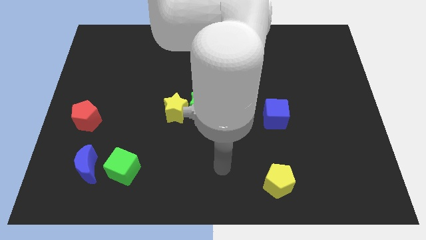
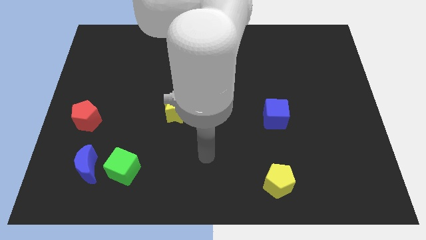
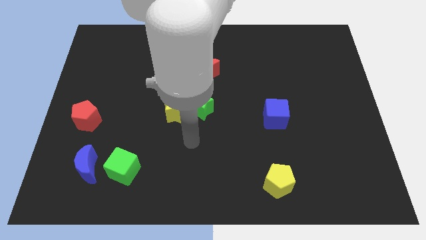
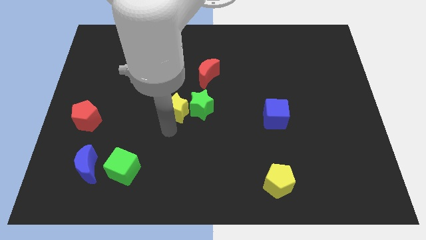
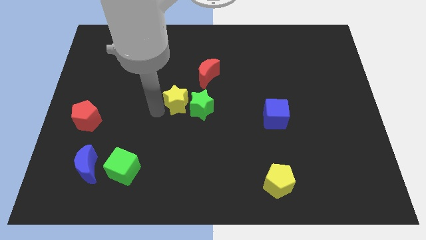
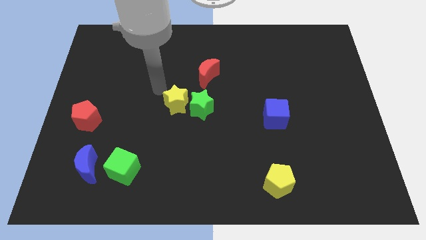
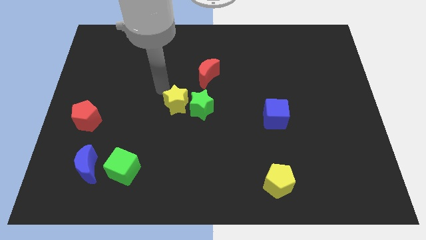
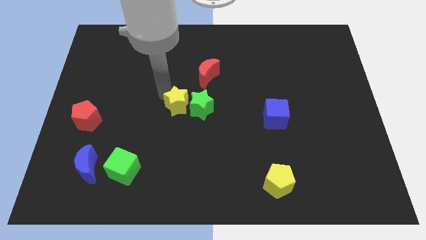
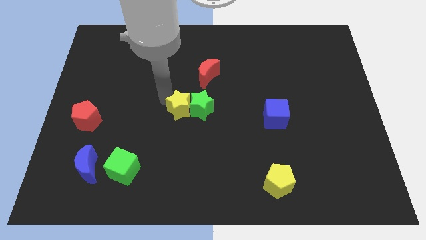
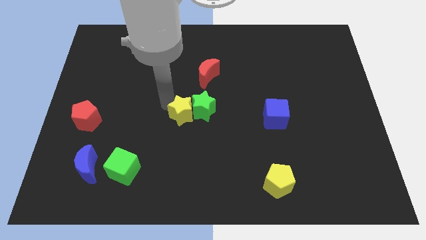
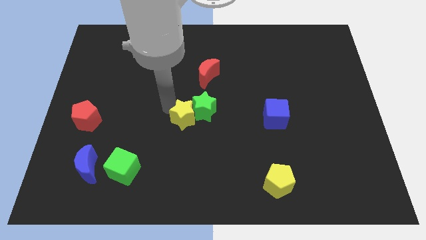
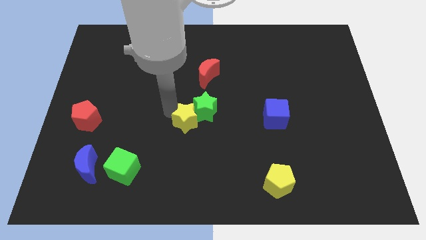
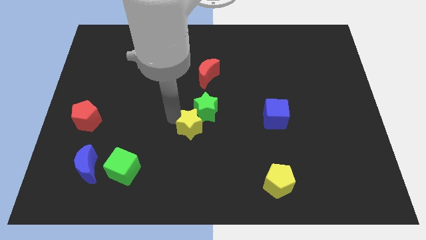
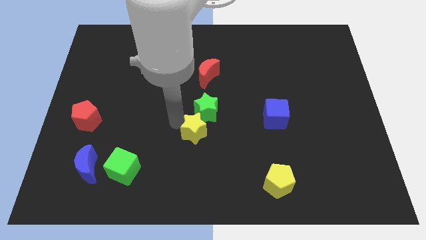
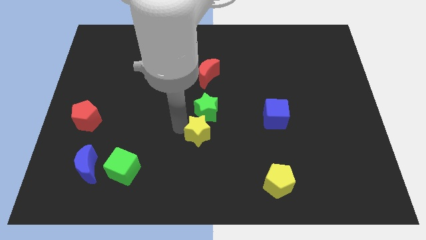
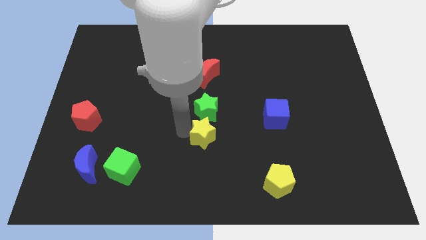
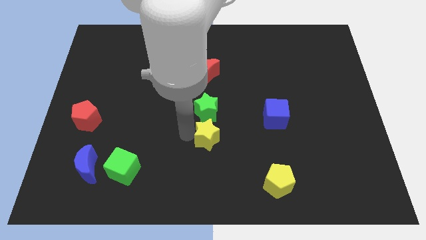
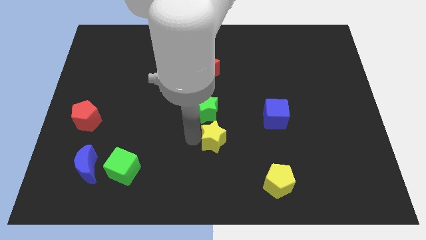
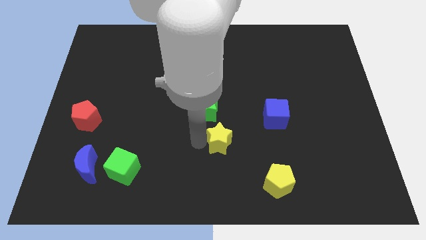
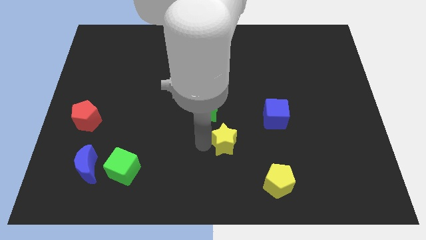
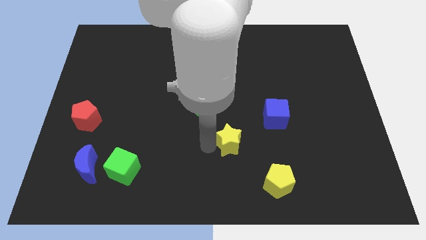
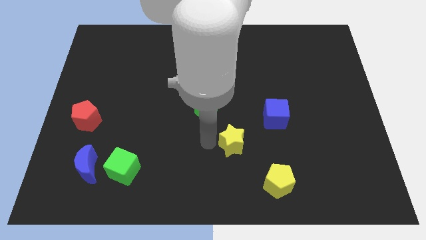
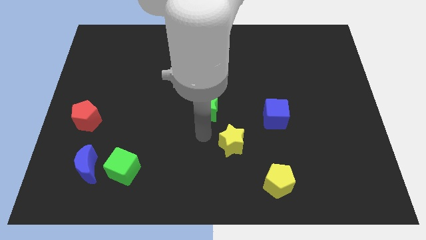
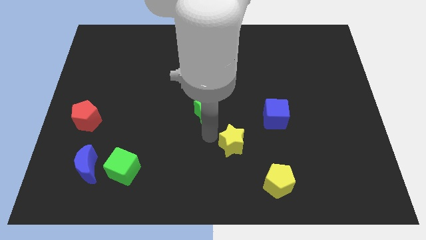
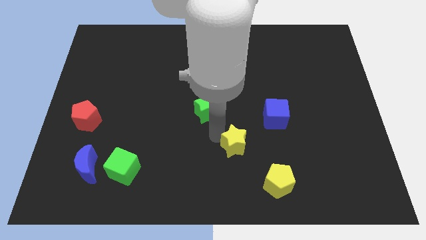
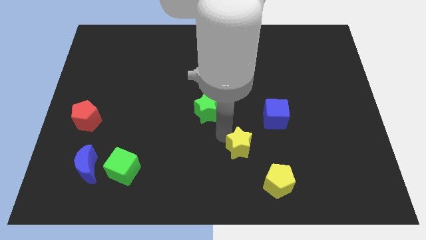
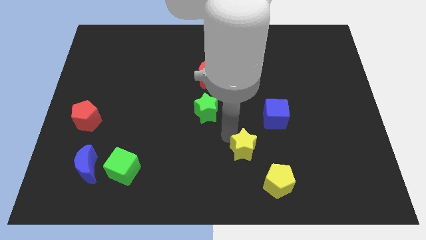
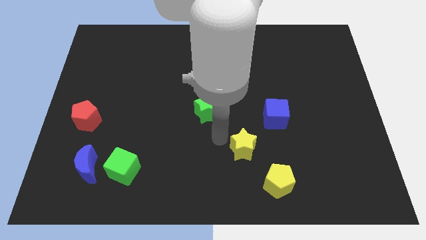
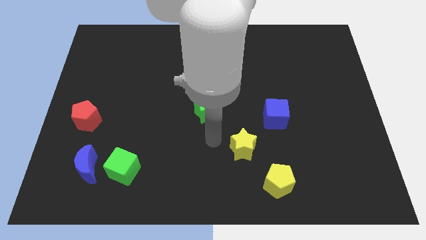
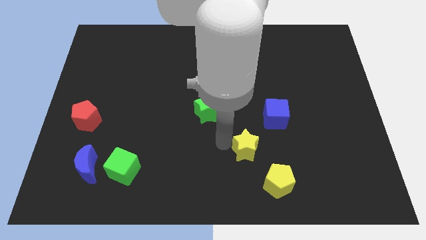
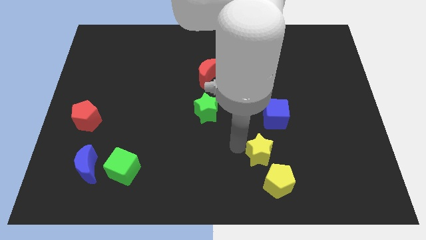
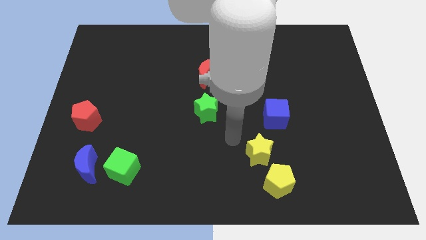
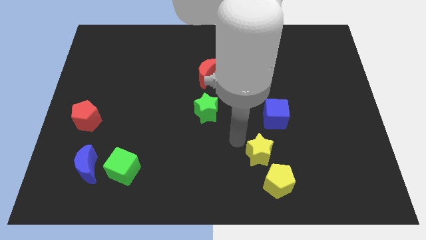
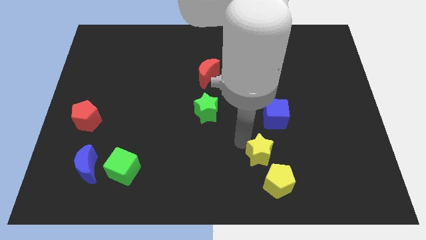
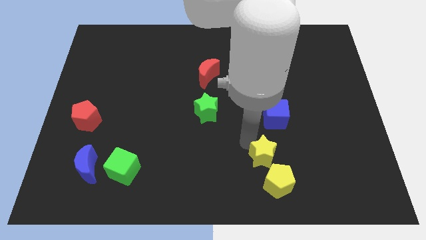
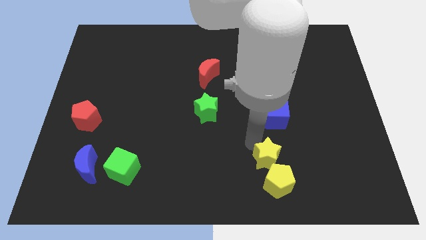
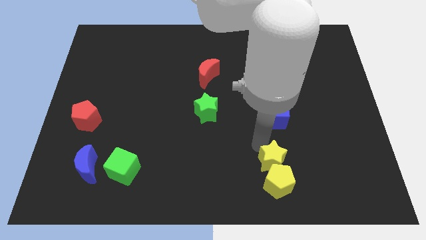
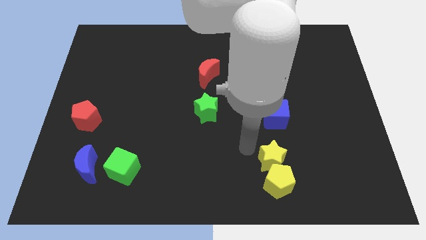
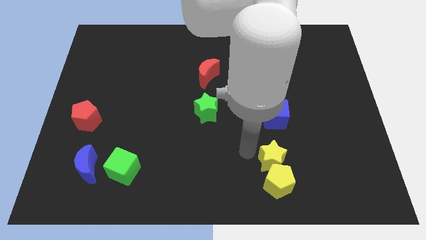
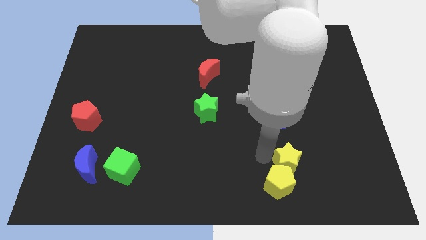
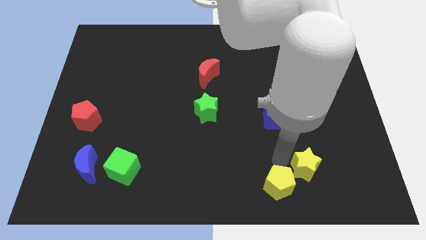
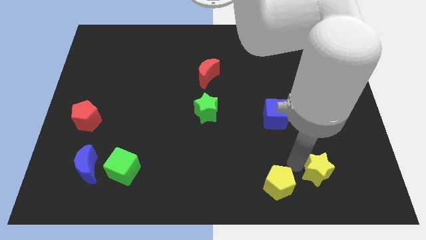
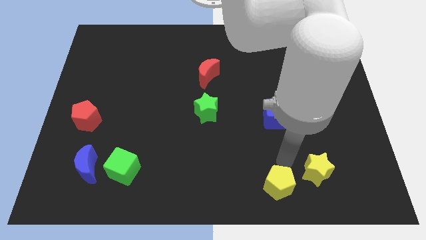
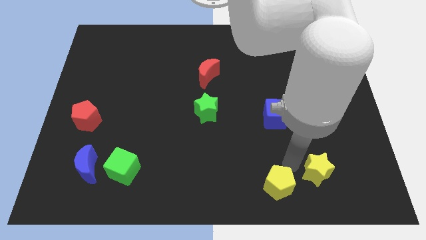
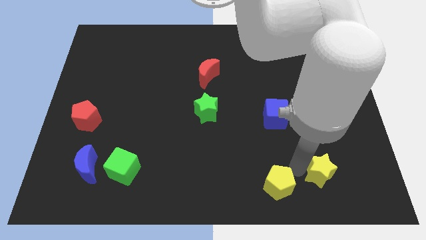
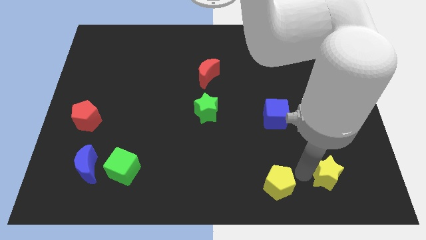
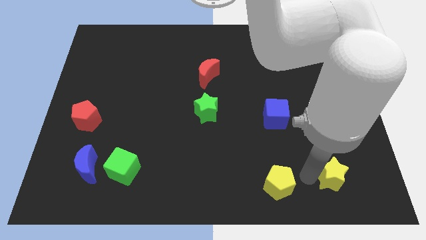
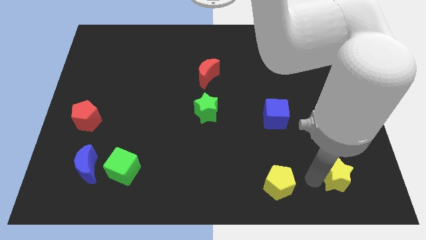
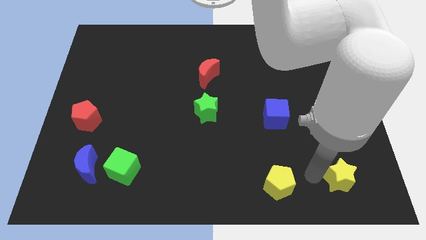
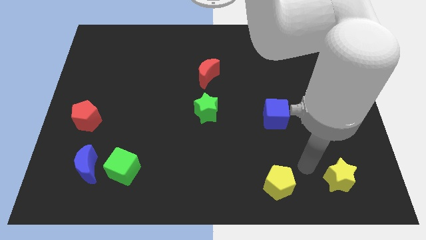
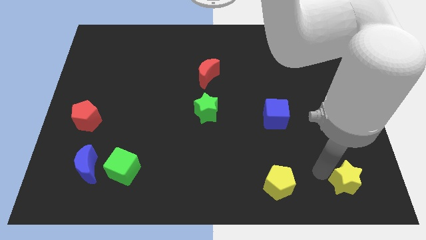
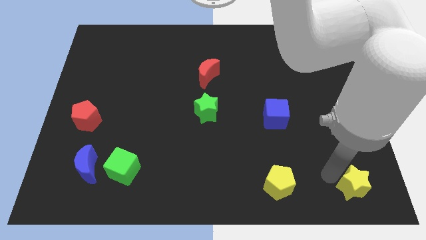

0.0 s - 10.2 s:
push the yellow star to the bottom right

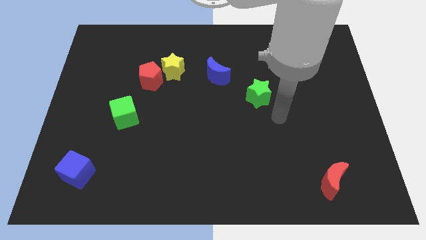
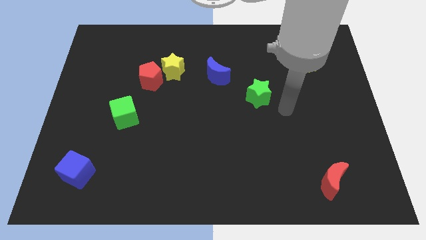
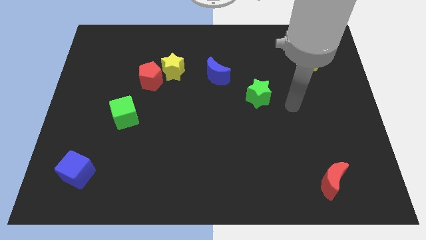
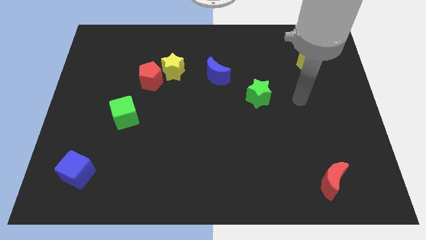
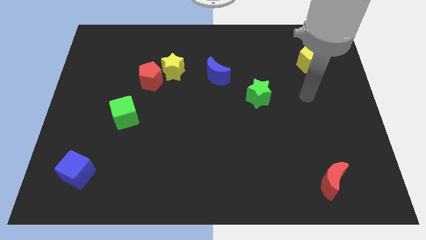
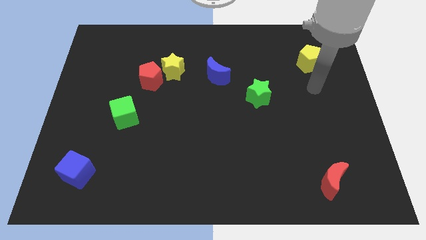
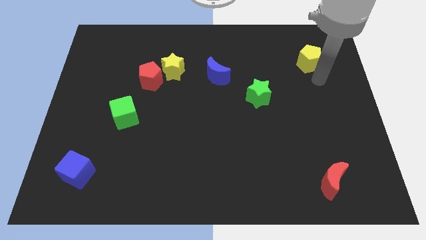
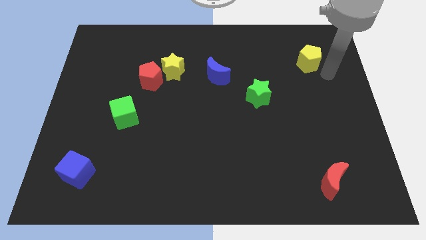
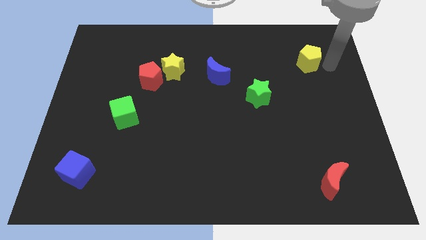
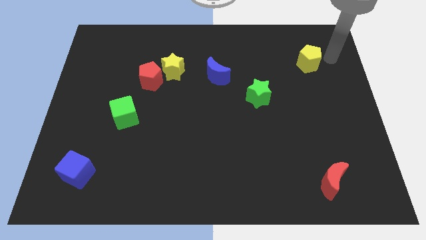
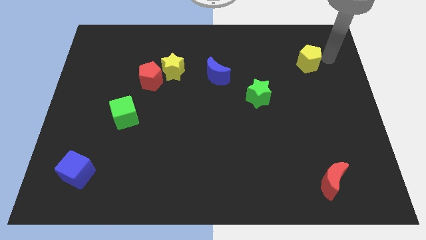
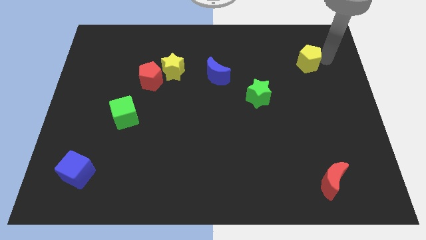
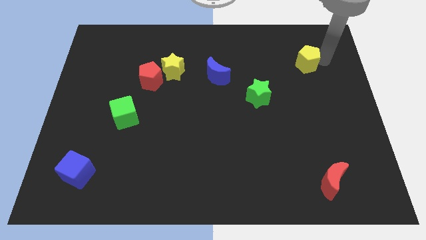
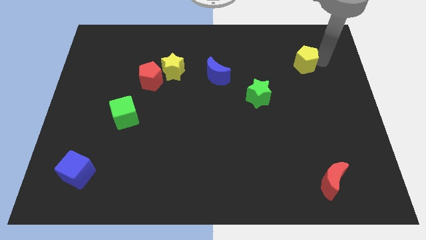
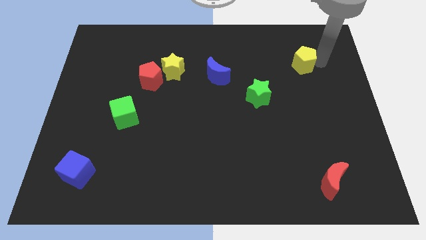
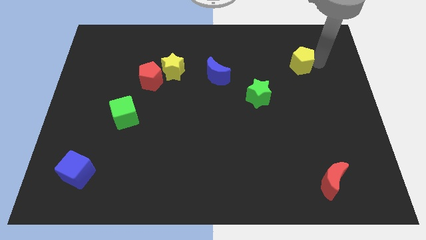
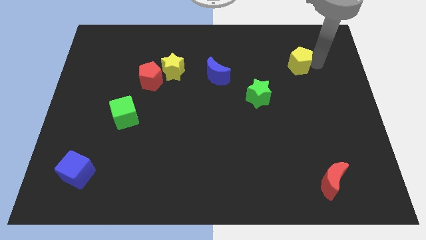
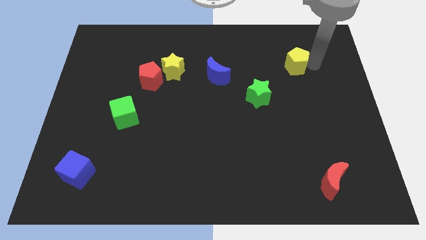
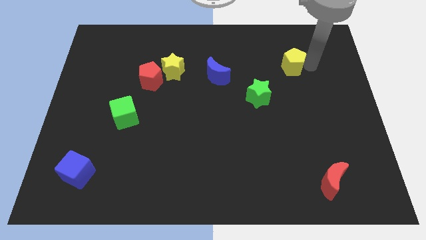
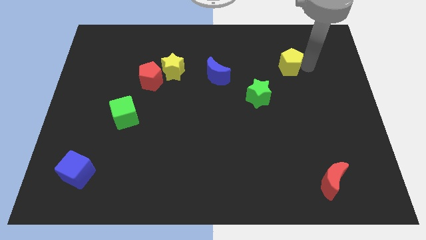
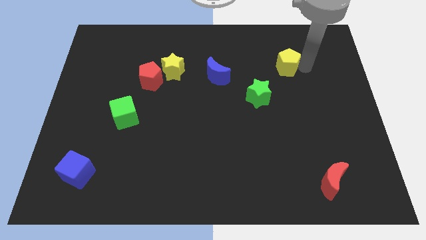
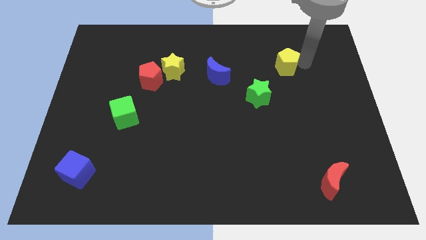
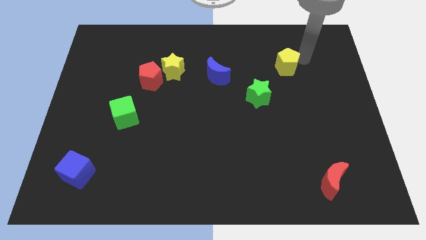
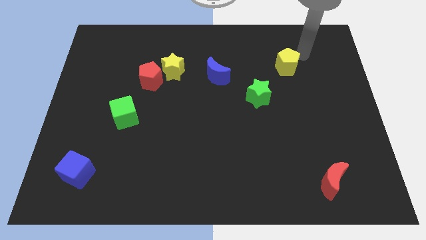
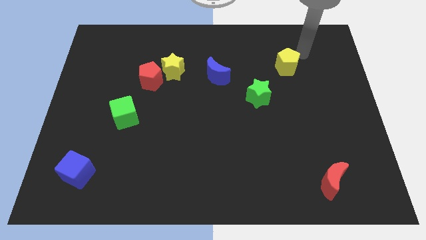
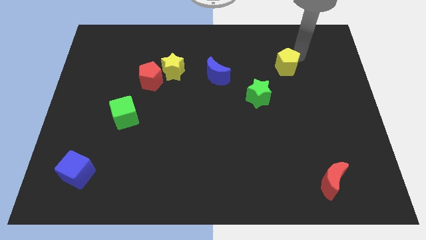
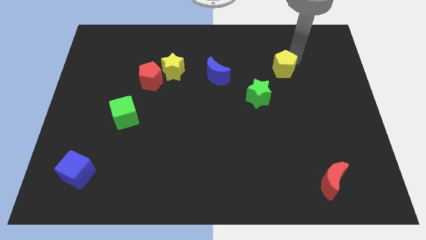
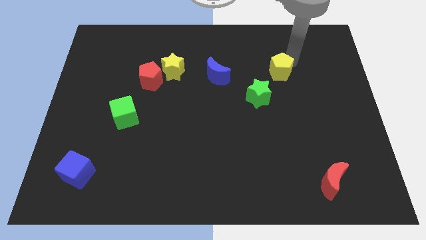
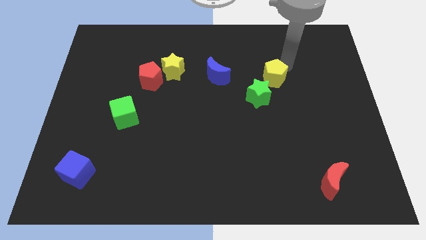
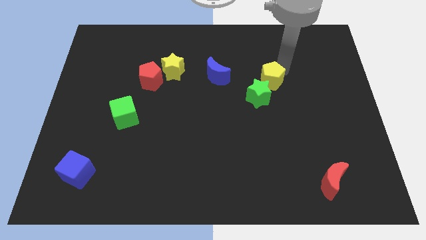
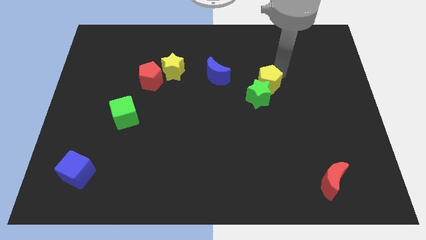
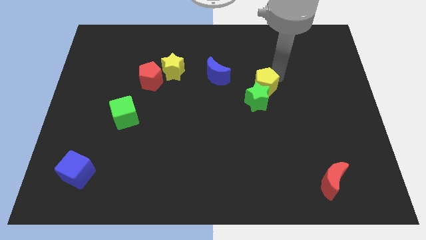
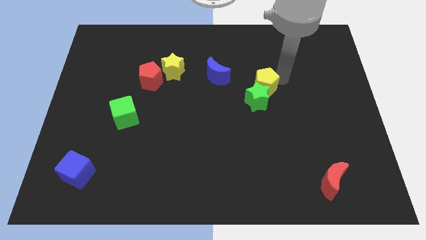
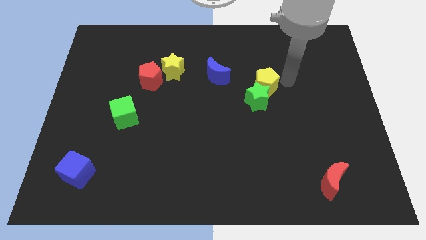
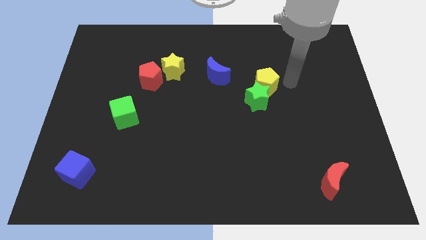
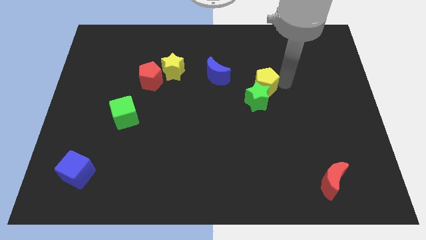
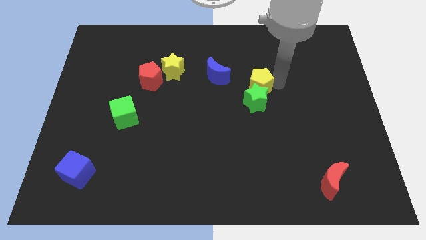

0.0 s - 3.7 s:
move the yellow pentagon to the center
